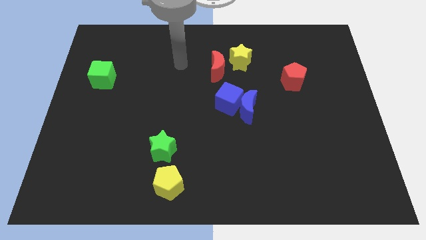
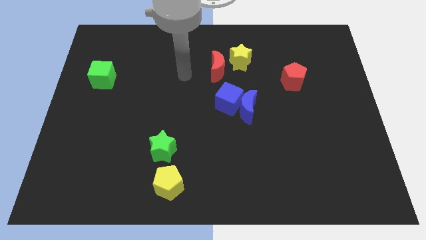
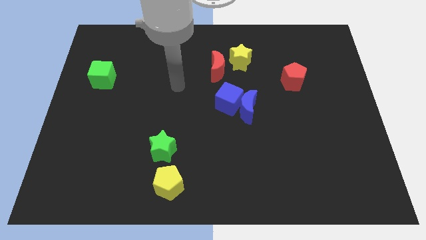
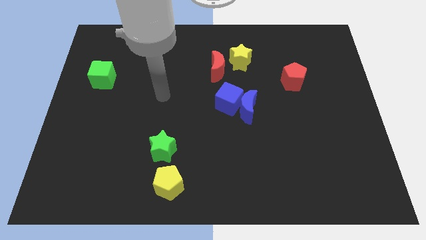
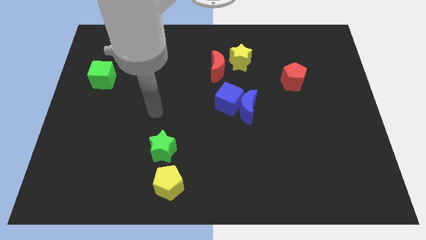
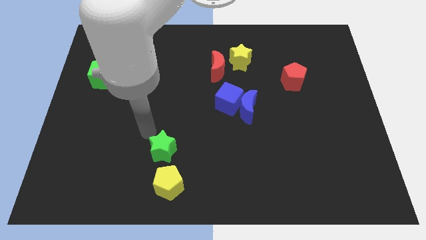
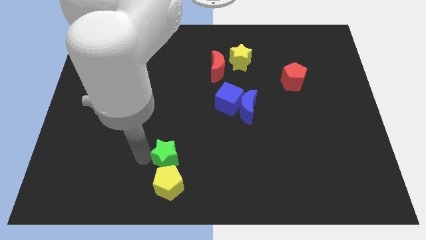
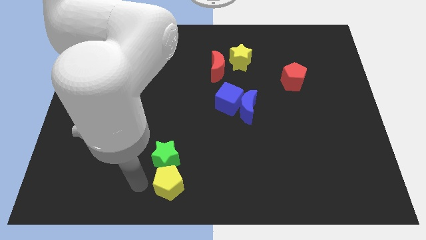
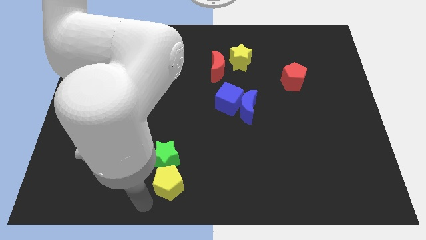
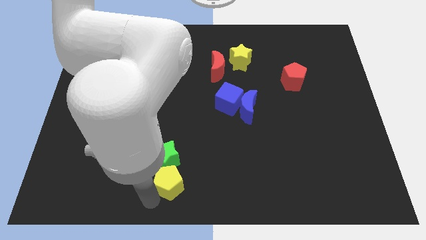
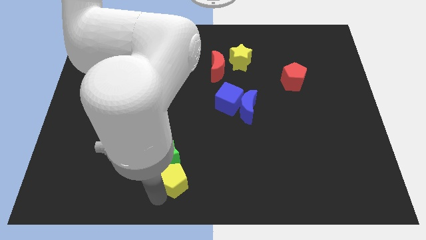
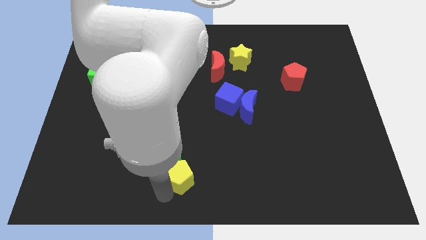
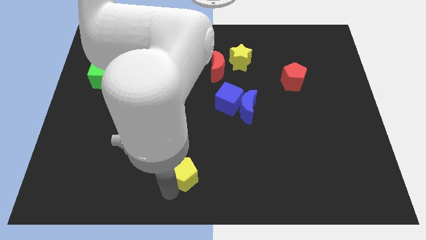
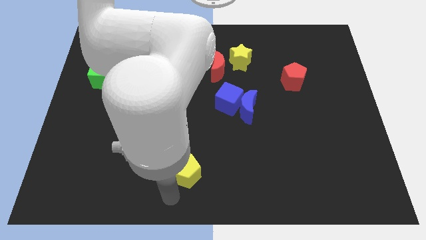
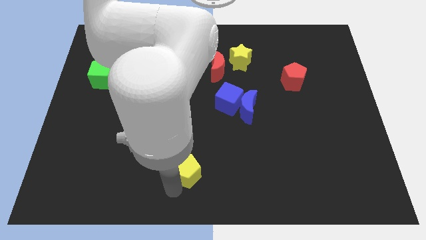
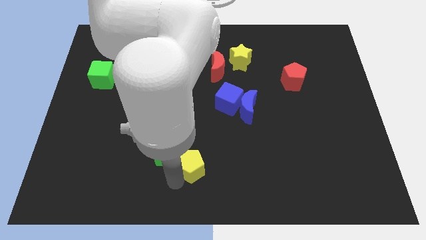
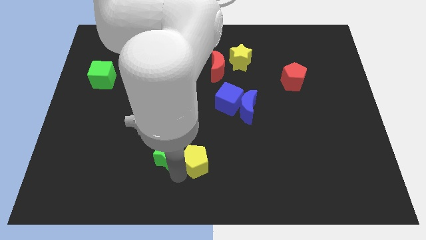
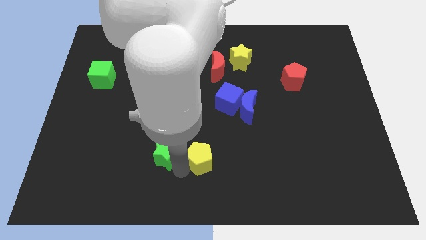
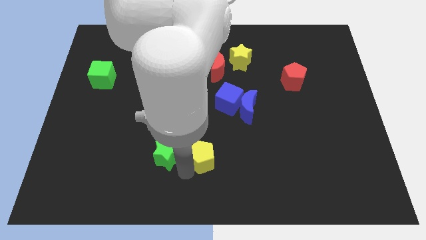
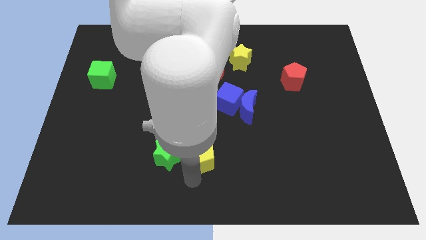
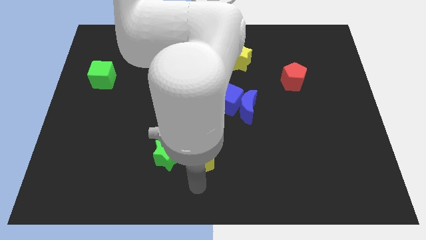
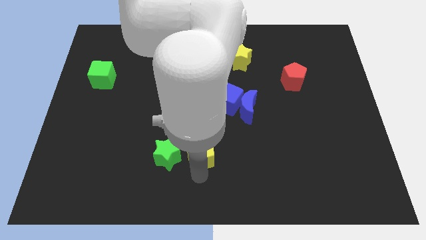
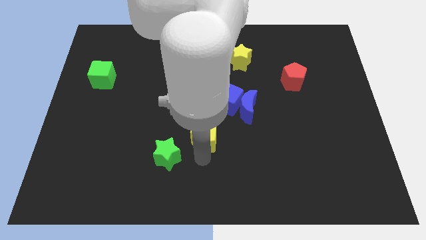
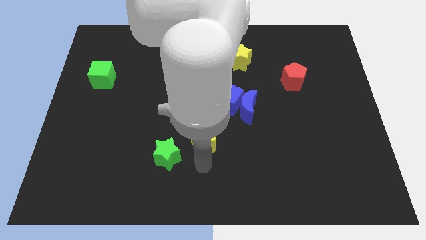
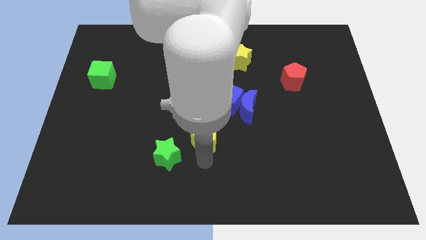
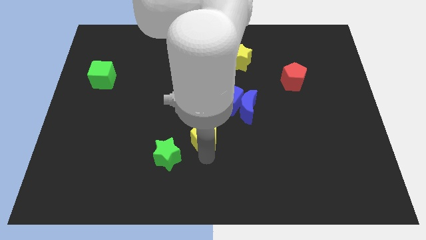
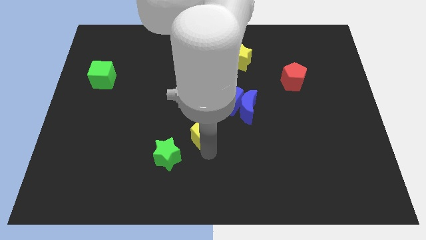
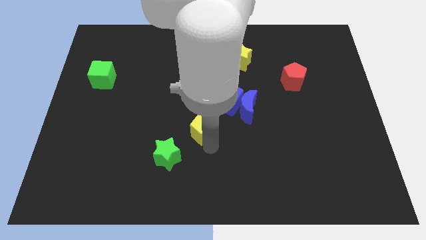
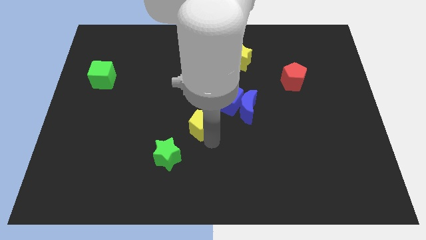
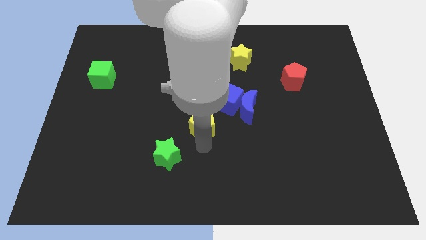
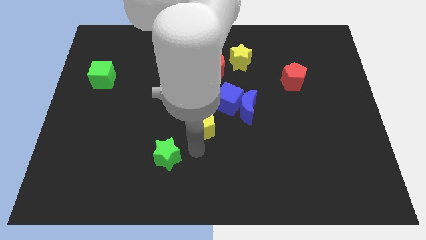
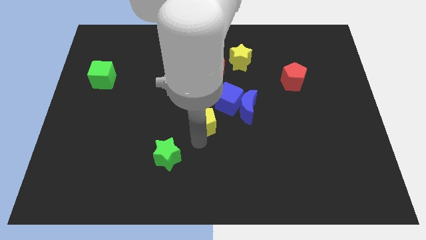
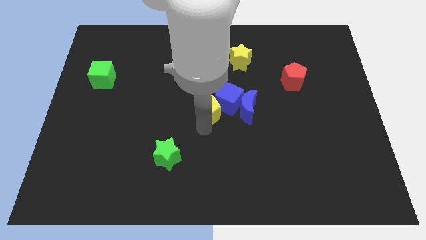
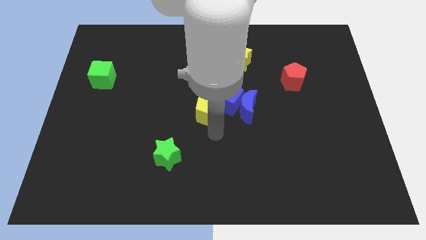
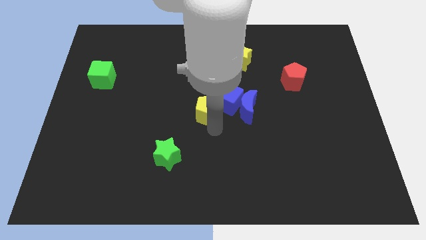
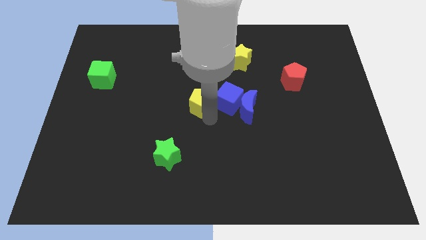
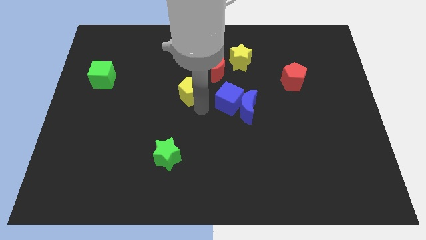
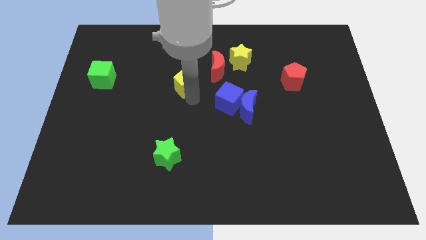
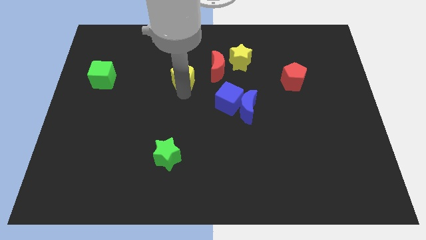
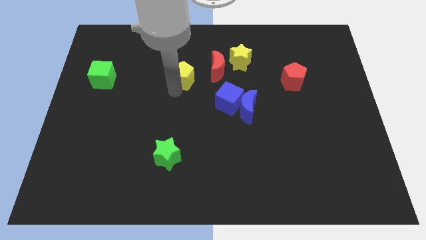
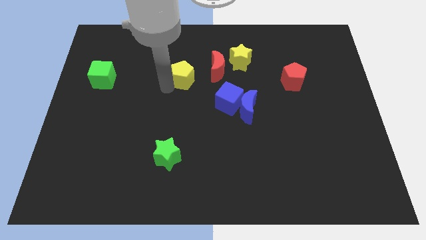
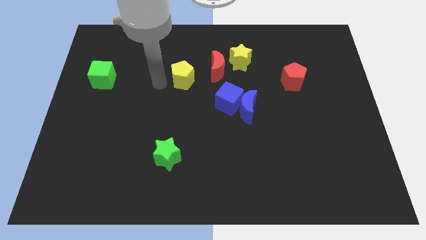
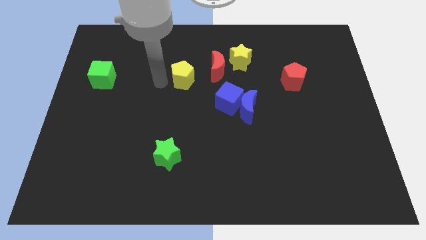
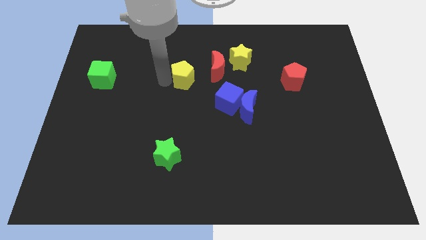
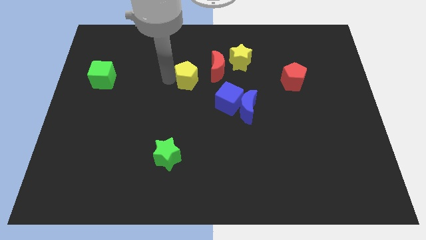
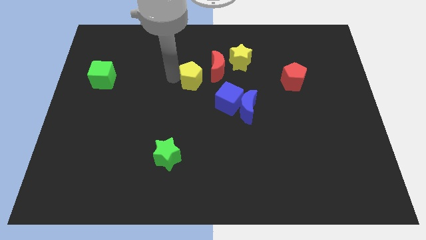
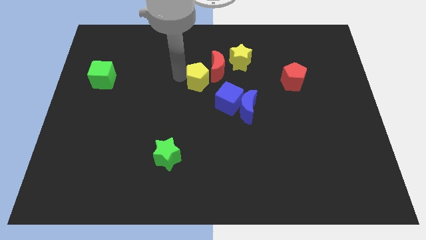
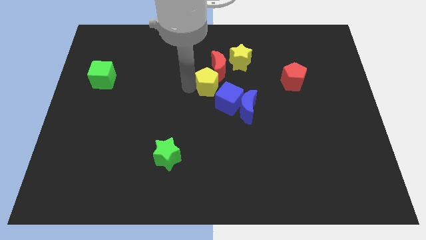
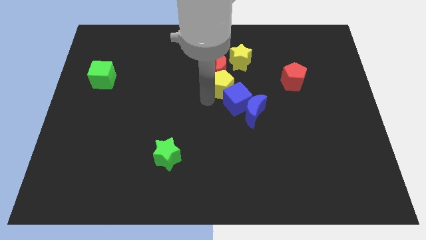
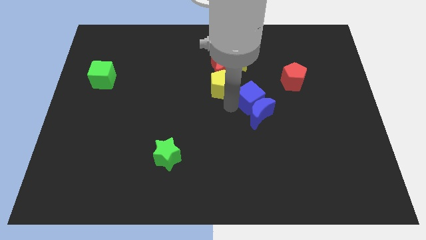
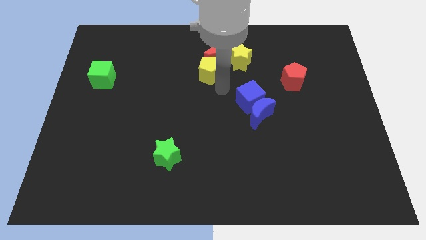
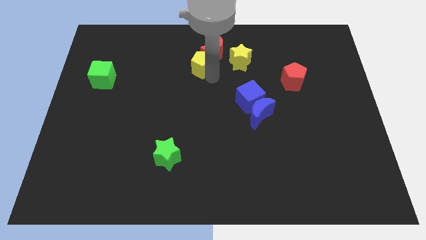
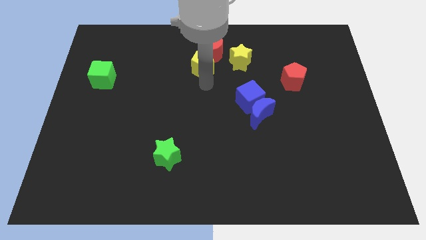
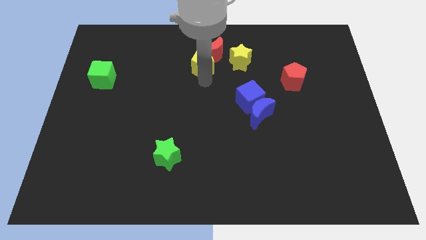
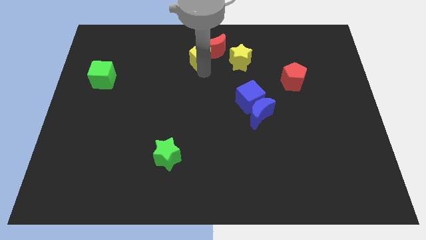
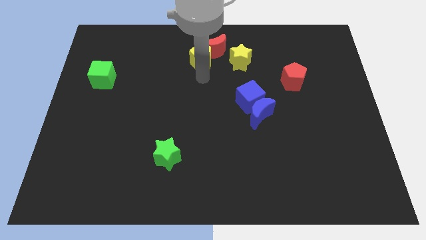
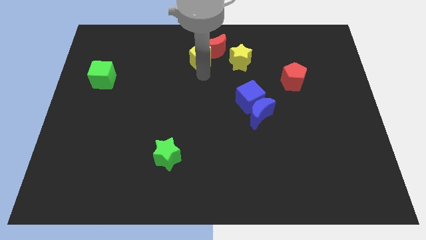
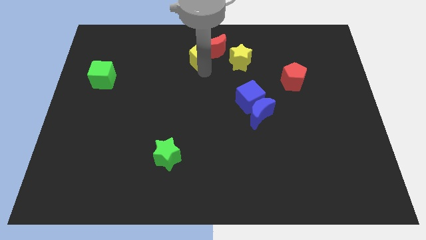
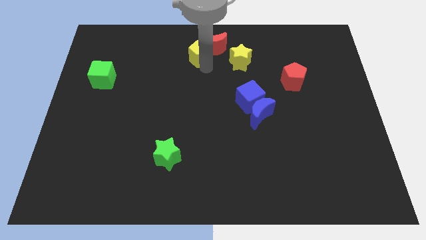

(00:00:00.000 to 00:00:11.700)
slide the yellow pentagon to the towards your base

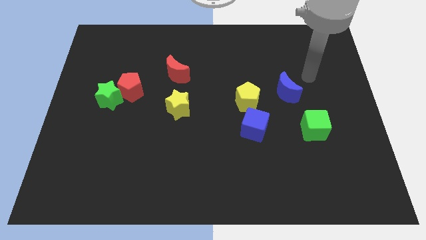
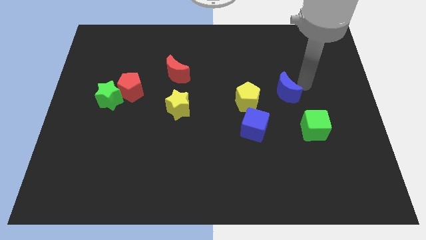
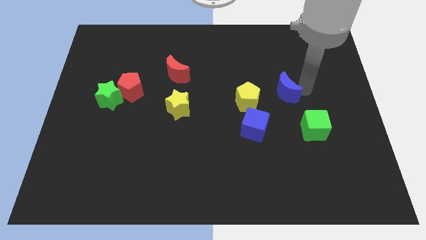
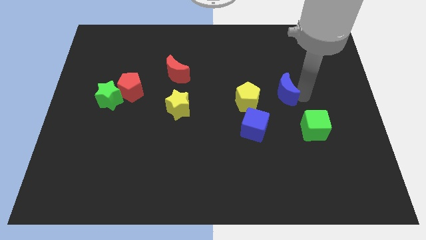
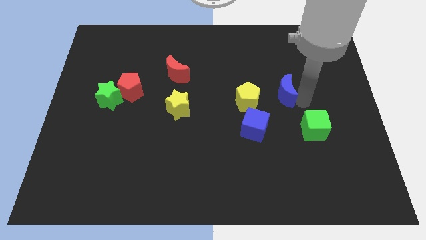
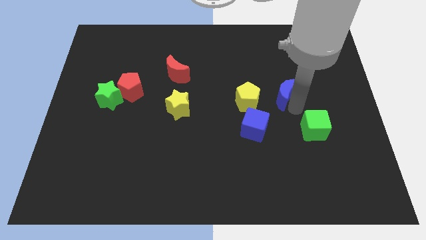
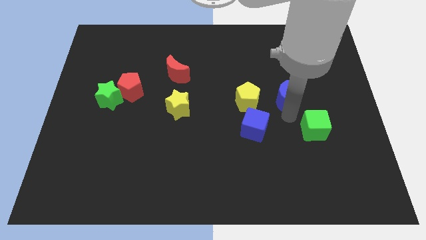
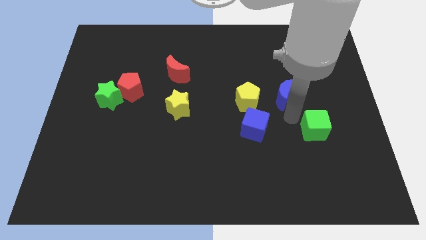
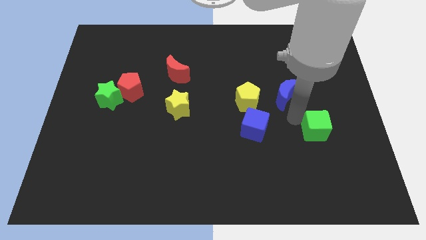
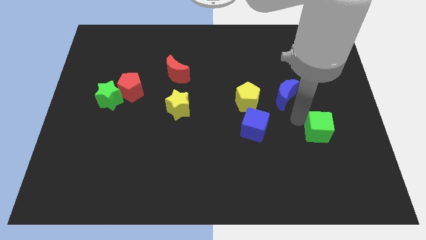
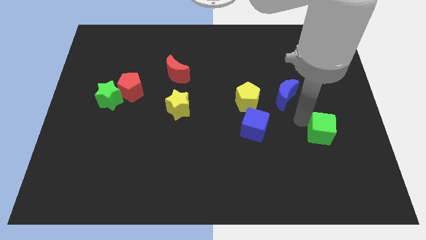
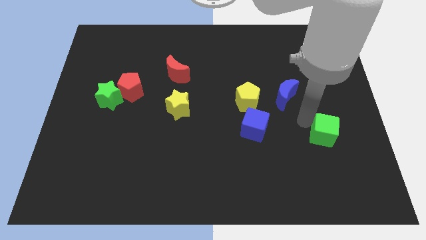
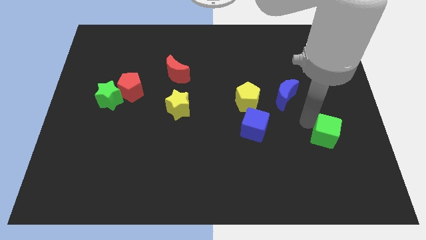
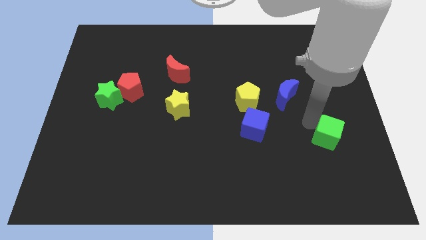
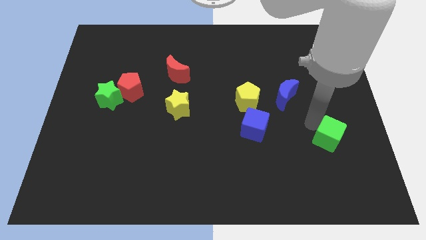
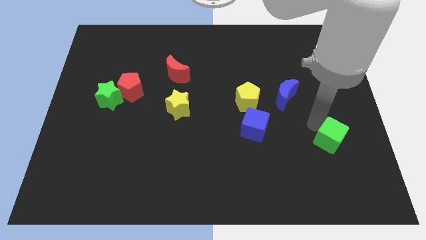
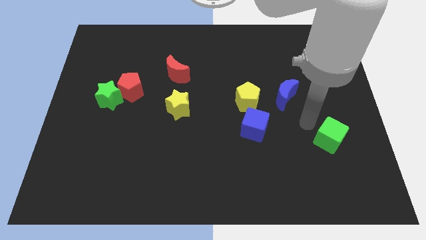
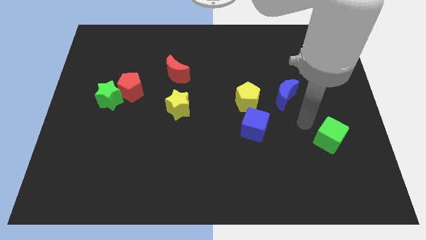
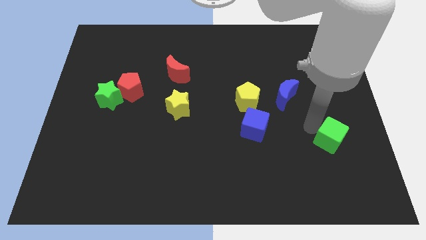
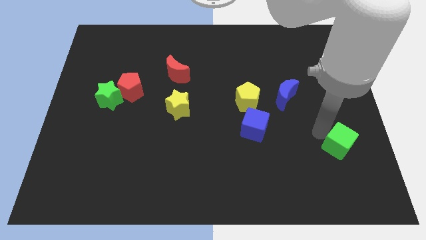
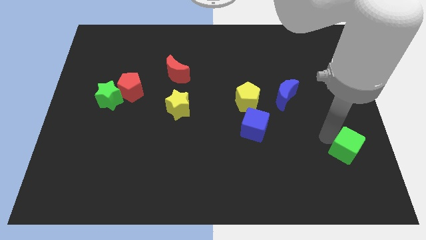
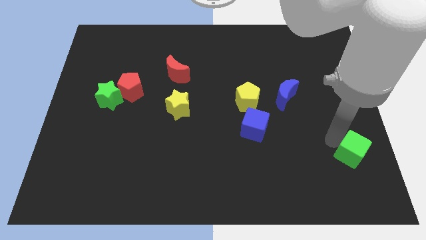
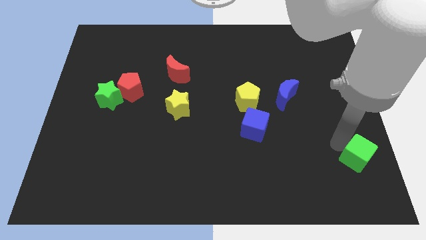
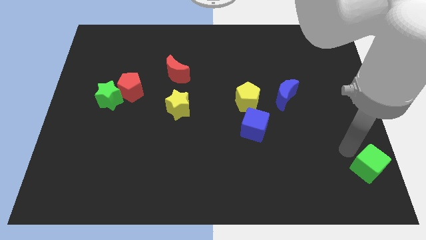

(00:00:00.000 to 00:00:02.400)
push the green cube to the bottom right
